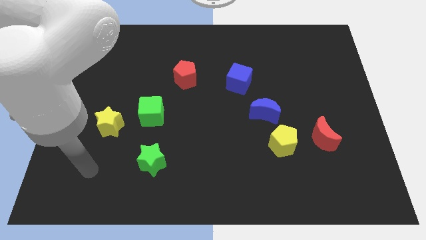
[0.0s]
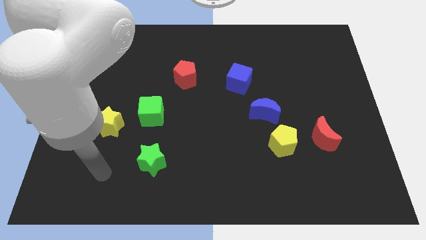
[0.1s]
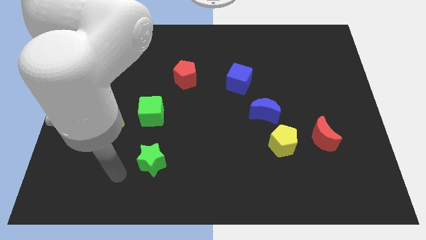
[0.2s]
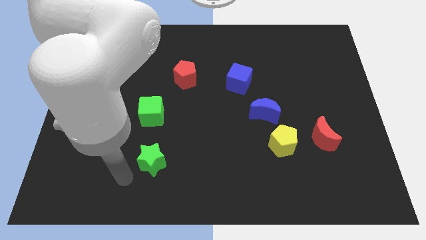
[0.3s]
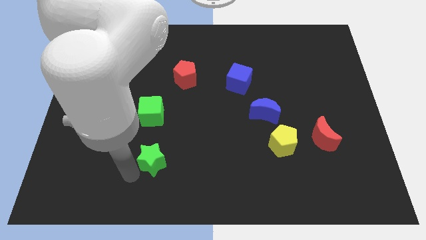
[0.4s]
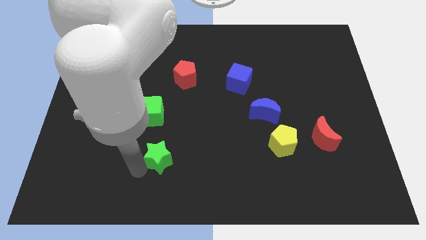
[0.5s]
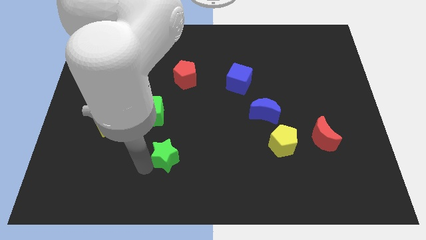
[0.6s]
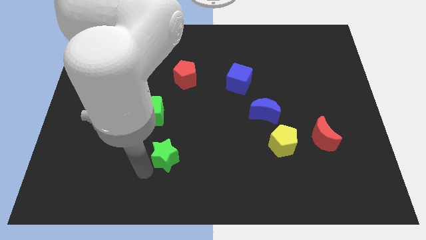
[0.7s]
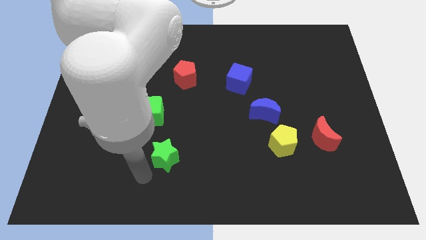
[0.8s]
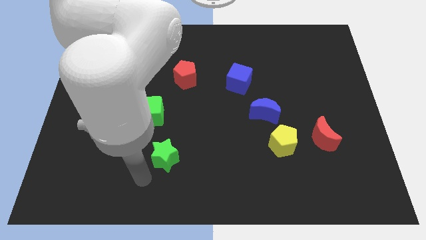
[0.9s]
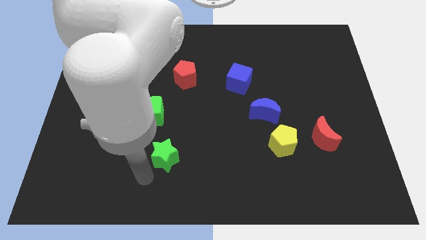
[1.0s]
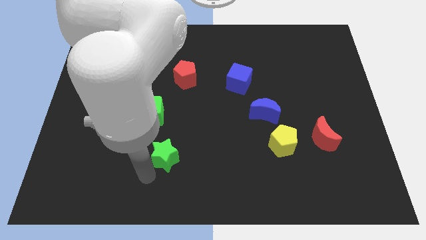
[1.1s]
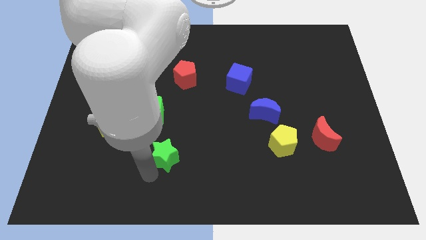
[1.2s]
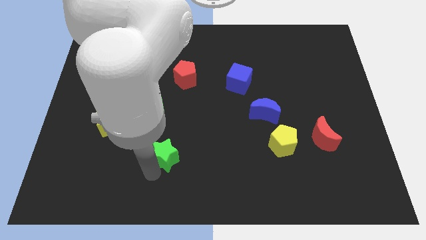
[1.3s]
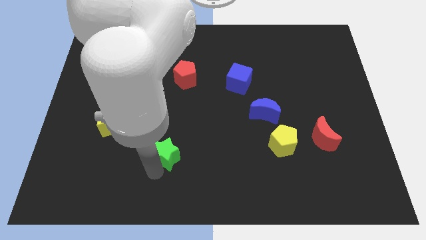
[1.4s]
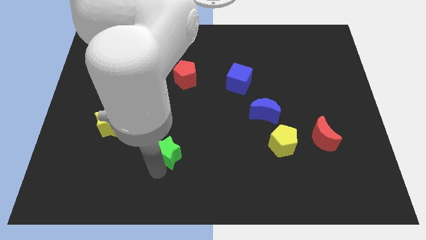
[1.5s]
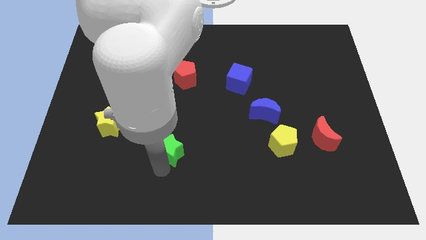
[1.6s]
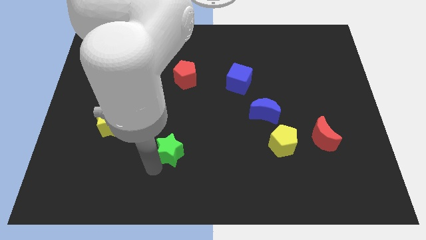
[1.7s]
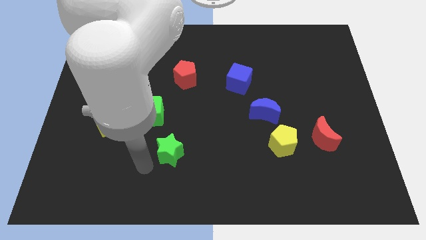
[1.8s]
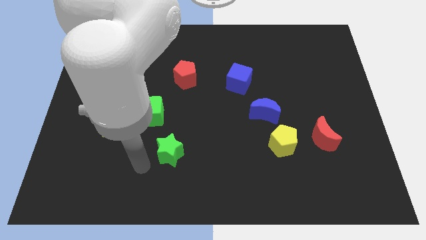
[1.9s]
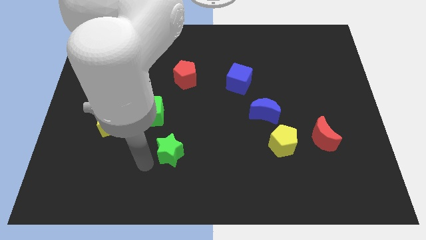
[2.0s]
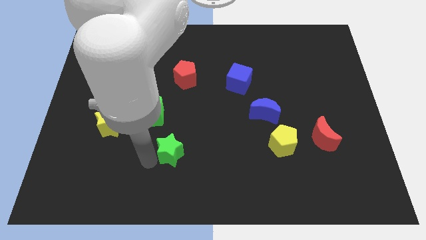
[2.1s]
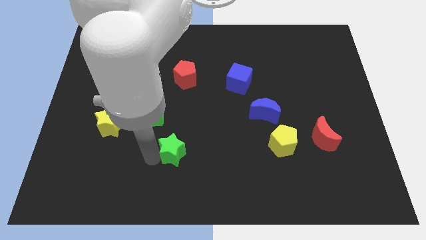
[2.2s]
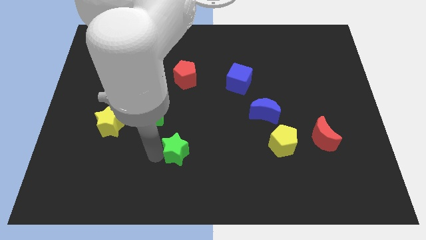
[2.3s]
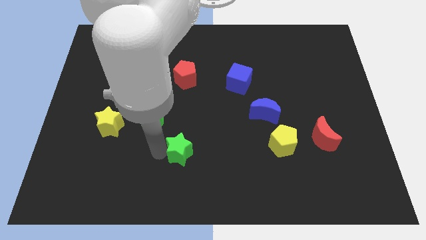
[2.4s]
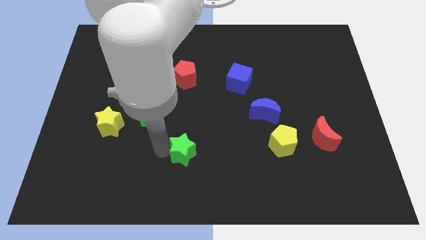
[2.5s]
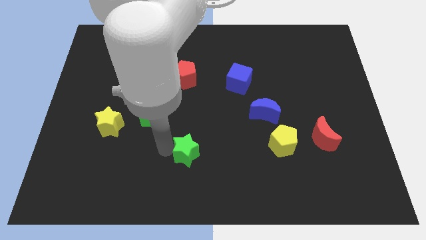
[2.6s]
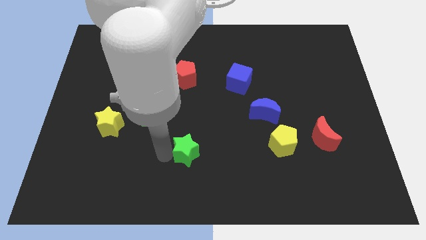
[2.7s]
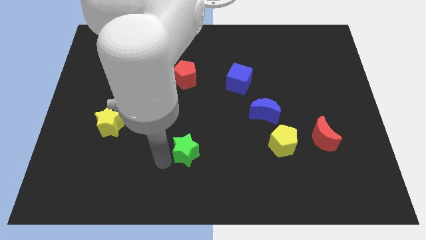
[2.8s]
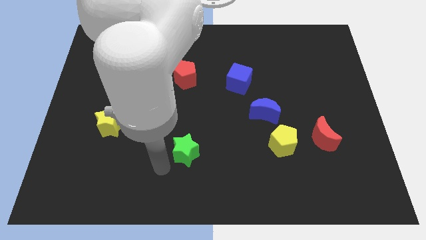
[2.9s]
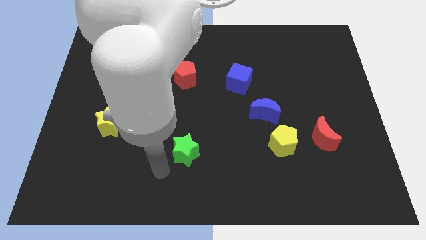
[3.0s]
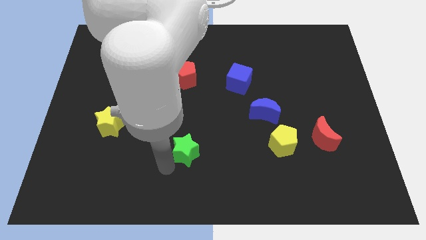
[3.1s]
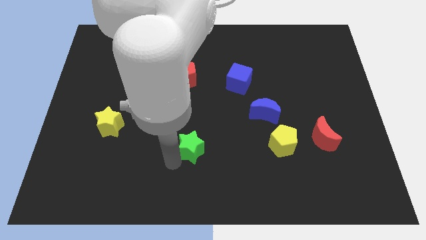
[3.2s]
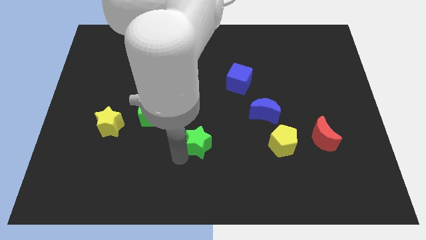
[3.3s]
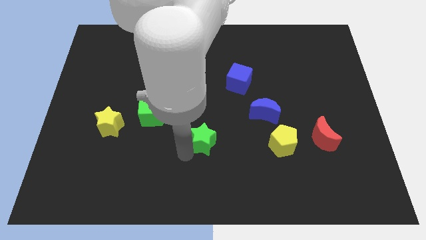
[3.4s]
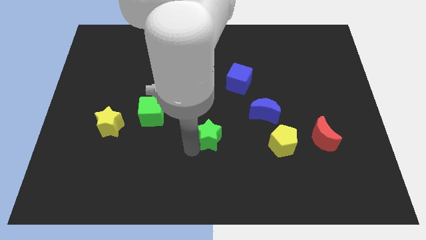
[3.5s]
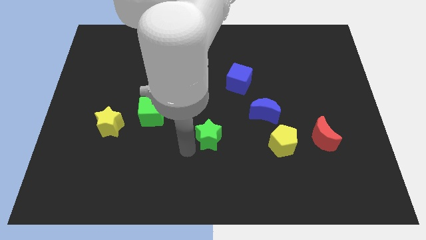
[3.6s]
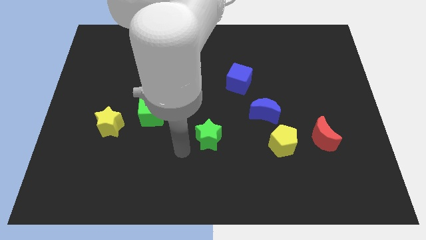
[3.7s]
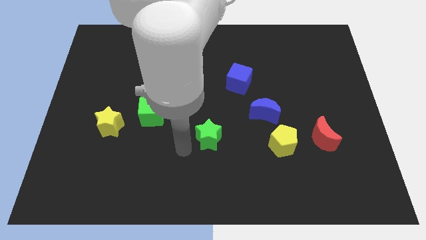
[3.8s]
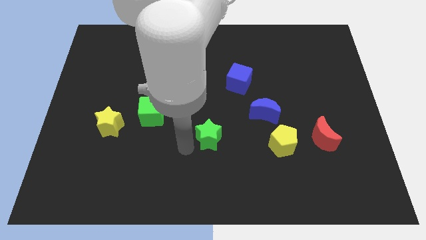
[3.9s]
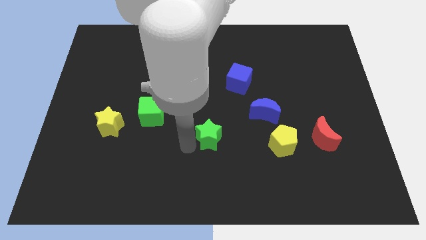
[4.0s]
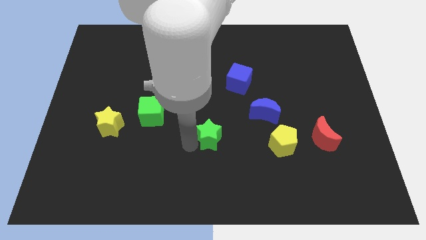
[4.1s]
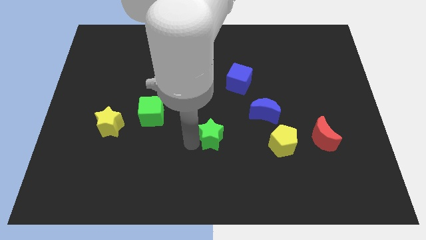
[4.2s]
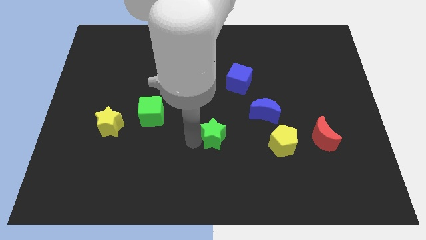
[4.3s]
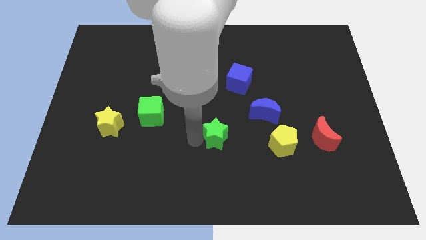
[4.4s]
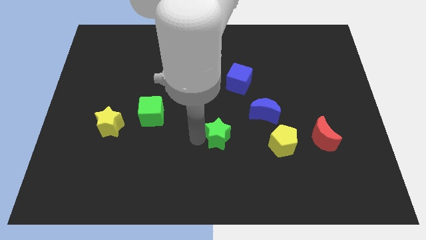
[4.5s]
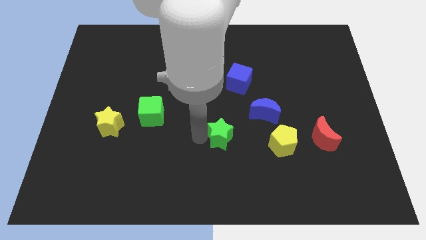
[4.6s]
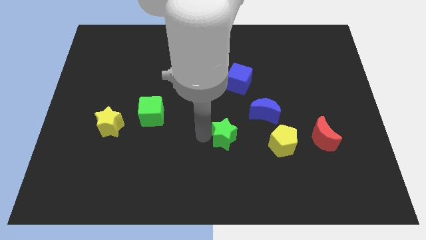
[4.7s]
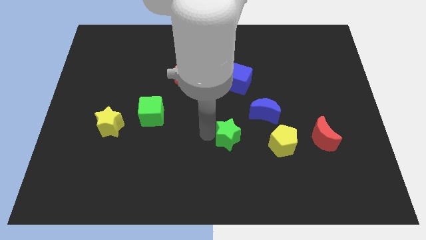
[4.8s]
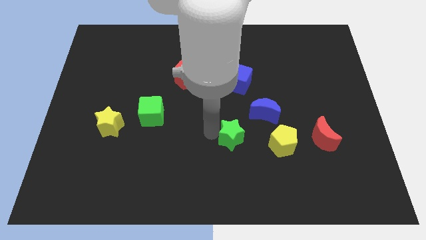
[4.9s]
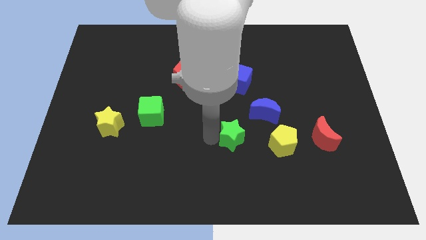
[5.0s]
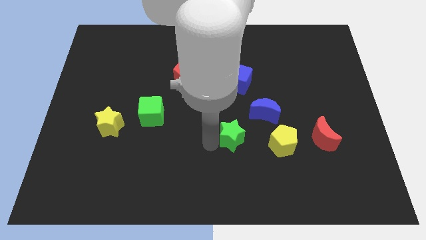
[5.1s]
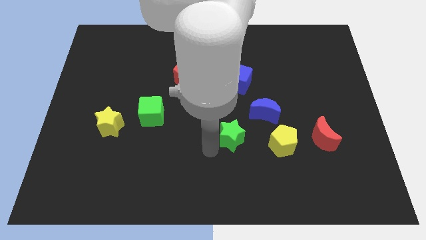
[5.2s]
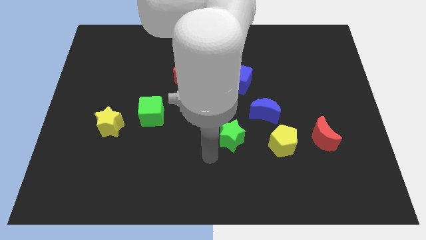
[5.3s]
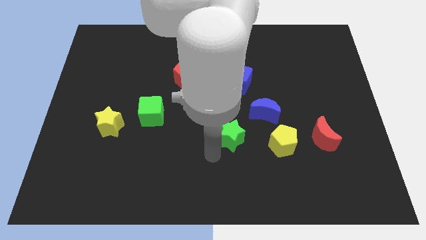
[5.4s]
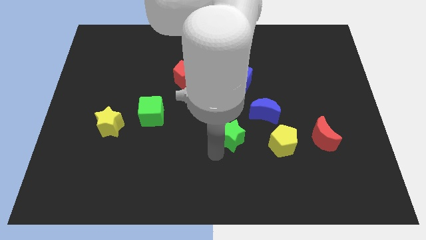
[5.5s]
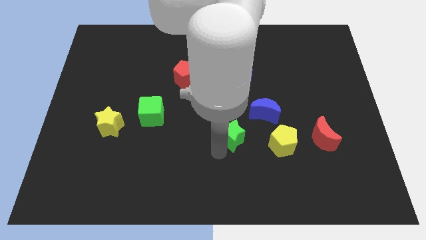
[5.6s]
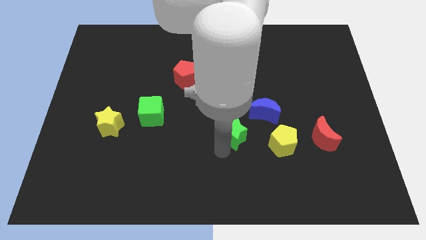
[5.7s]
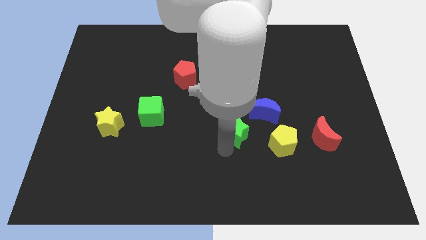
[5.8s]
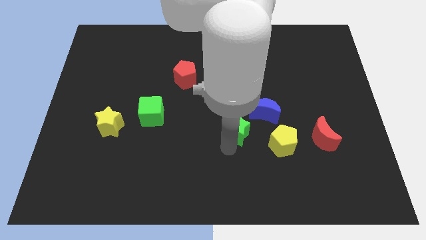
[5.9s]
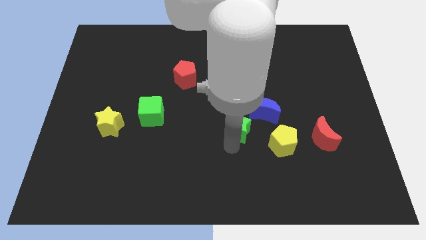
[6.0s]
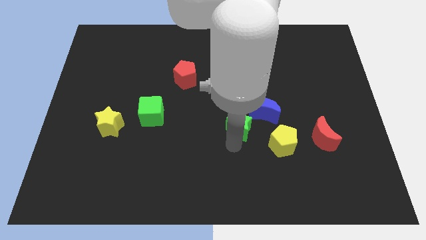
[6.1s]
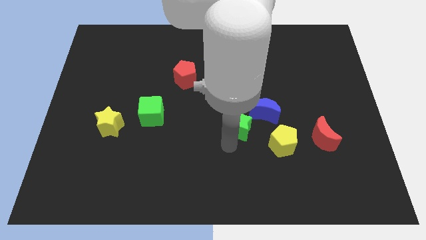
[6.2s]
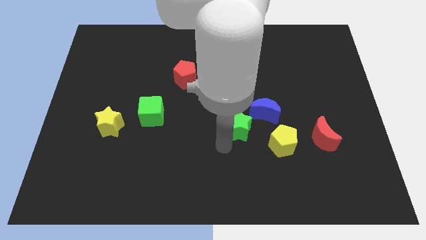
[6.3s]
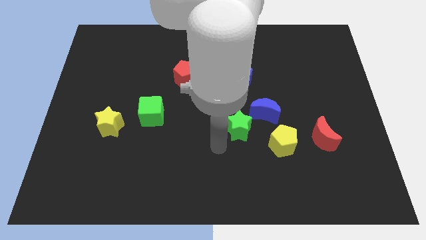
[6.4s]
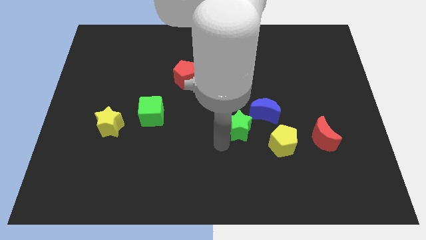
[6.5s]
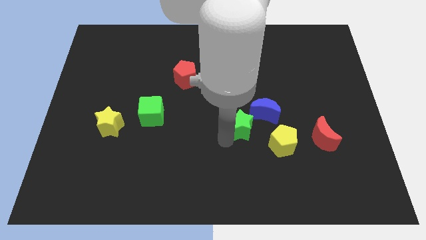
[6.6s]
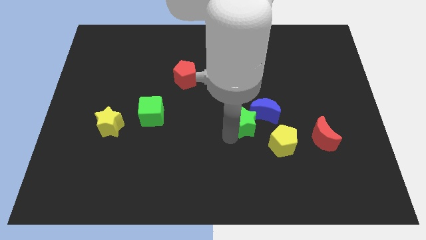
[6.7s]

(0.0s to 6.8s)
push the green star next to the blue moon

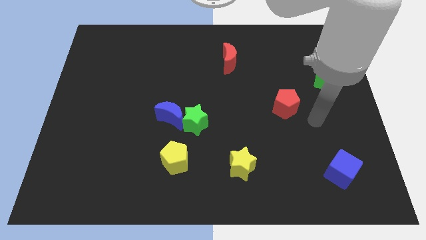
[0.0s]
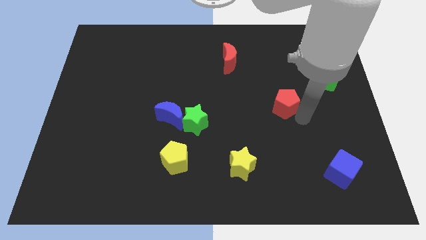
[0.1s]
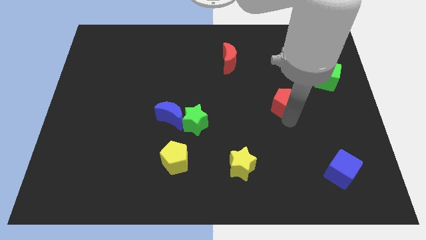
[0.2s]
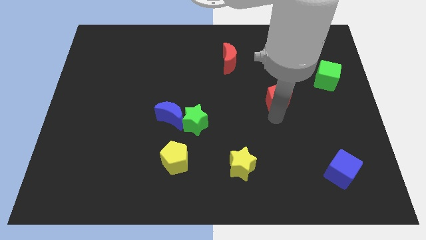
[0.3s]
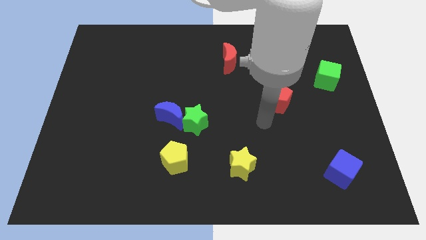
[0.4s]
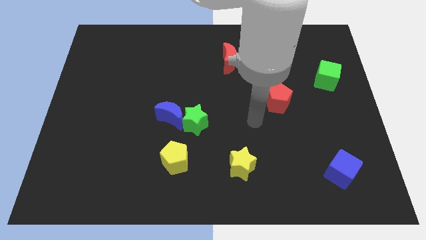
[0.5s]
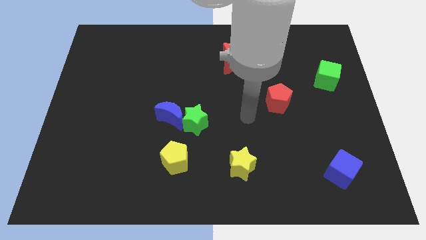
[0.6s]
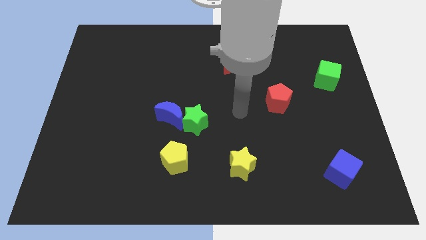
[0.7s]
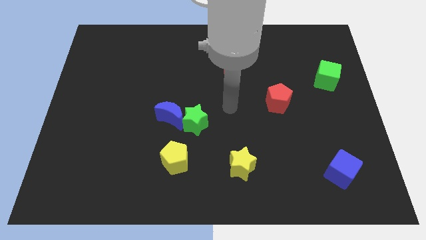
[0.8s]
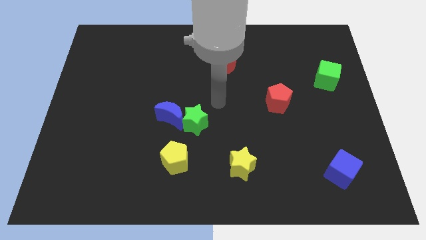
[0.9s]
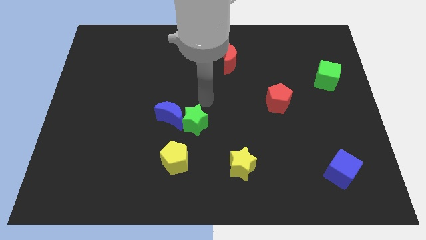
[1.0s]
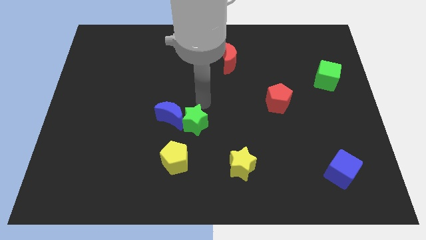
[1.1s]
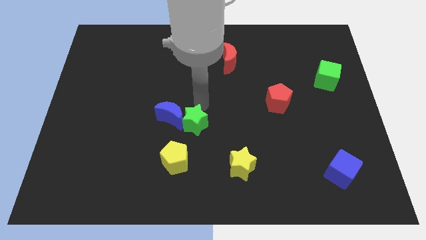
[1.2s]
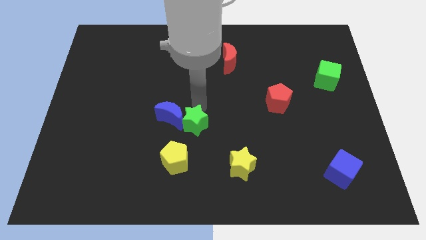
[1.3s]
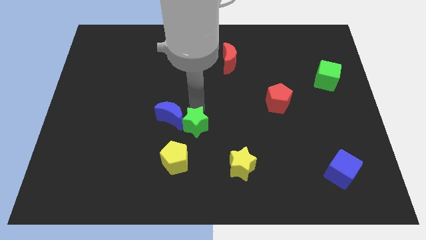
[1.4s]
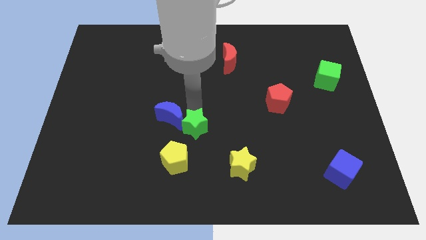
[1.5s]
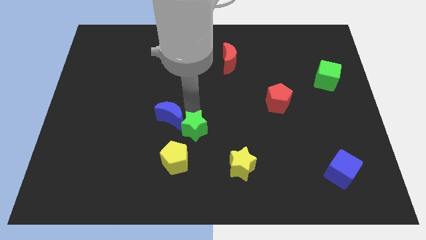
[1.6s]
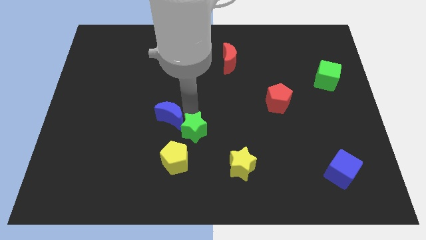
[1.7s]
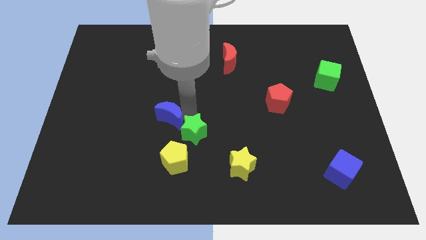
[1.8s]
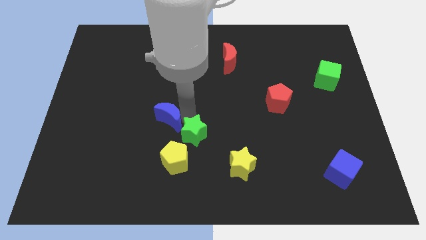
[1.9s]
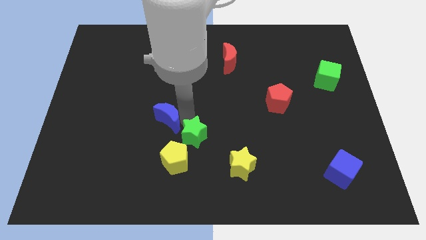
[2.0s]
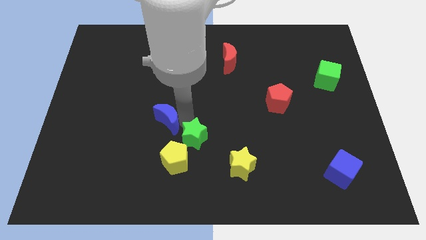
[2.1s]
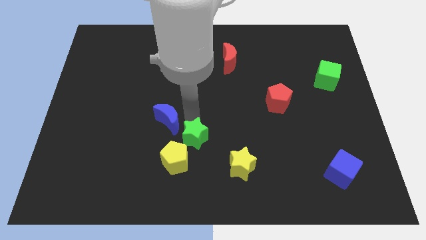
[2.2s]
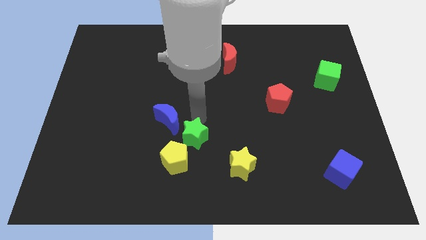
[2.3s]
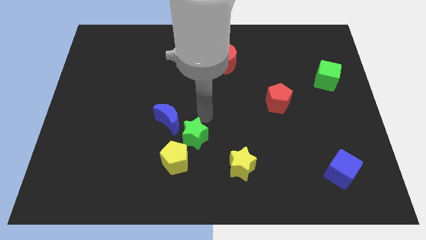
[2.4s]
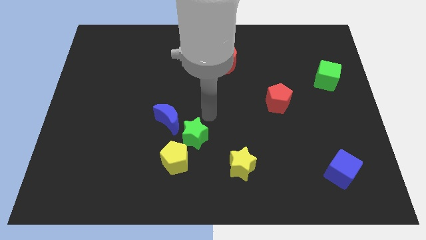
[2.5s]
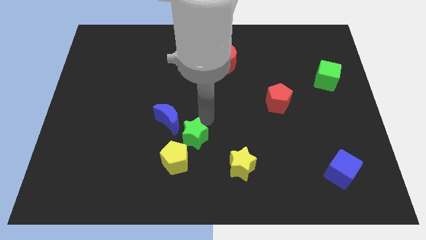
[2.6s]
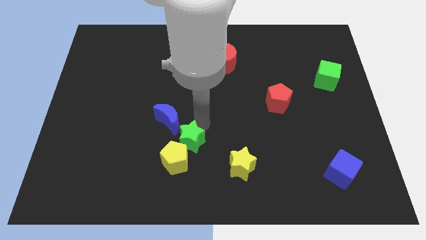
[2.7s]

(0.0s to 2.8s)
move the green star next to the yellow pentagon
